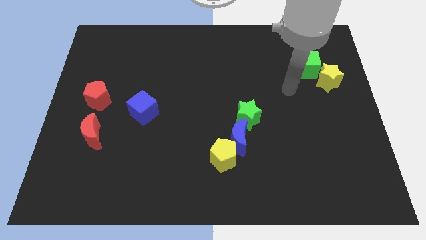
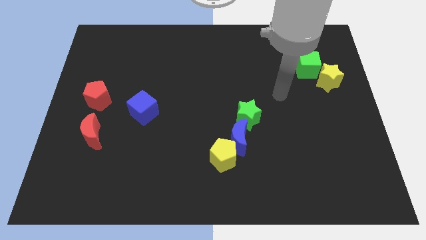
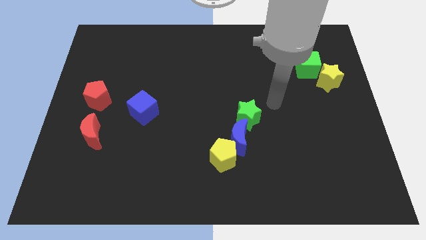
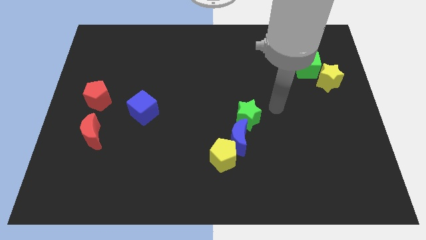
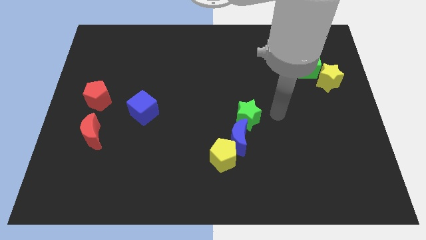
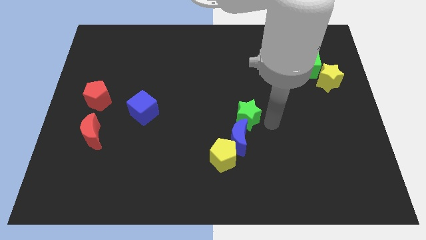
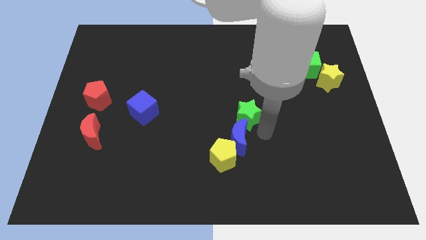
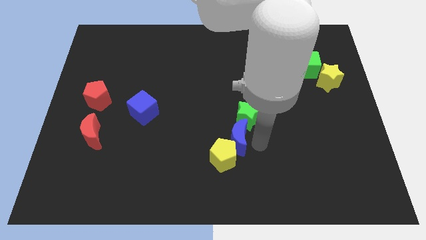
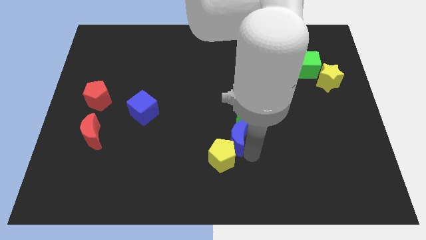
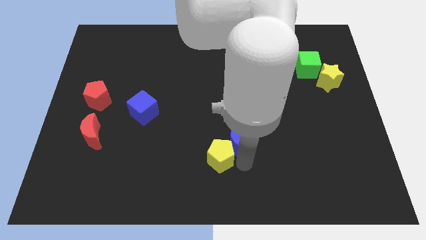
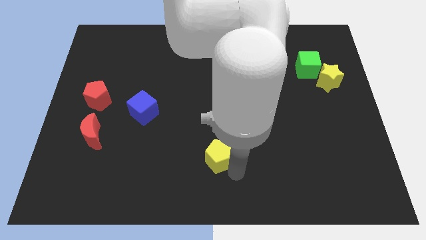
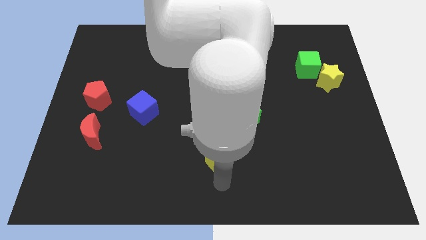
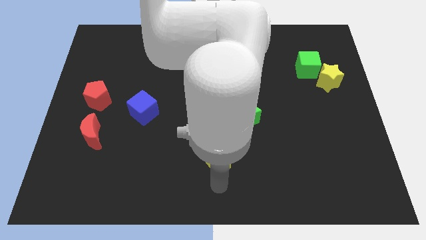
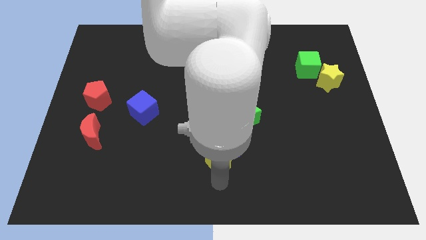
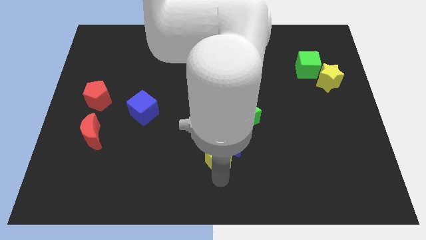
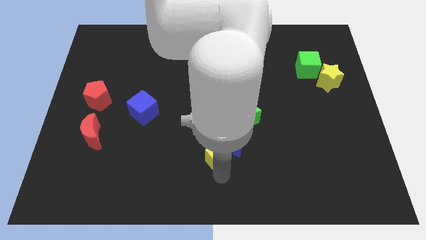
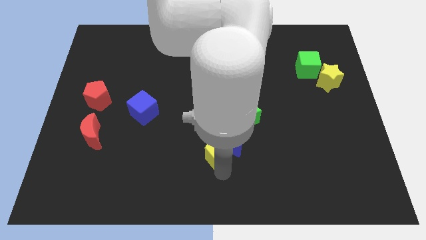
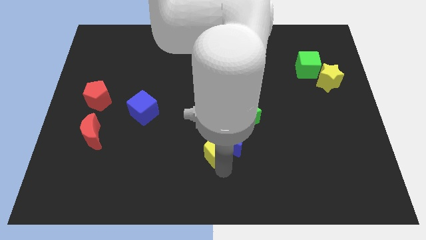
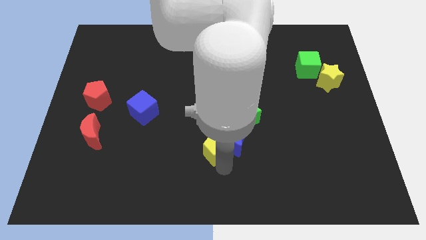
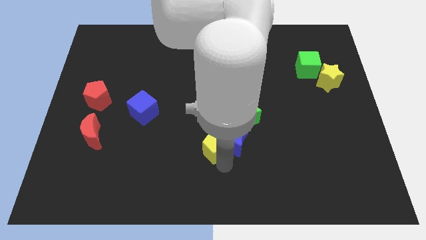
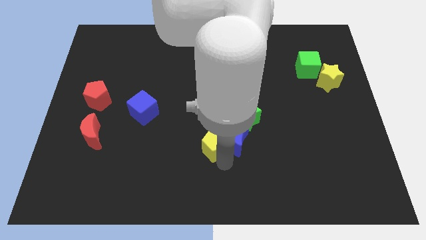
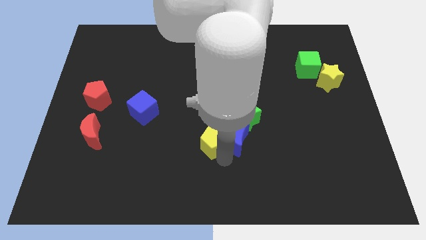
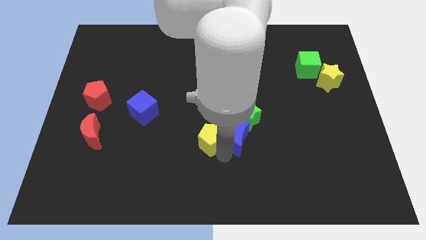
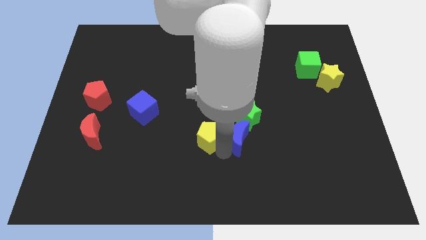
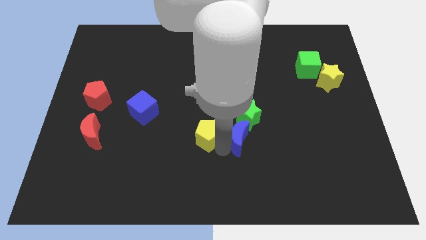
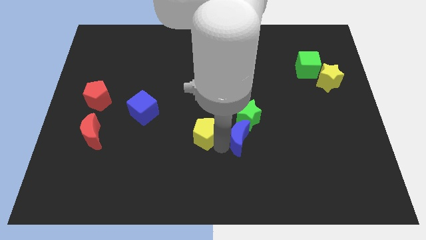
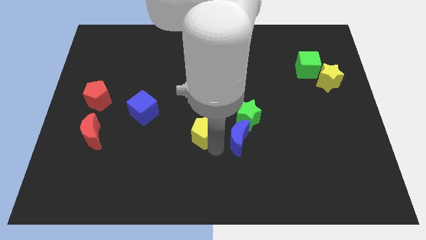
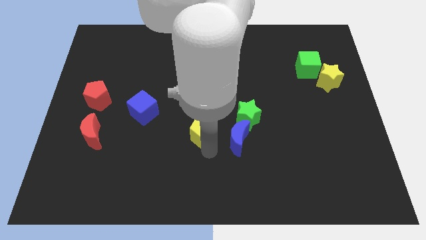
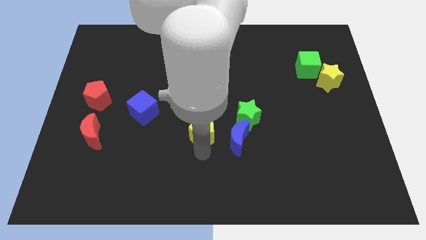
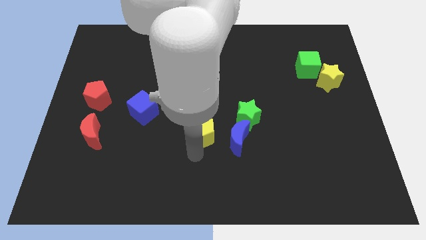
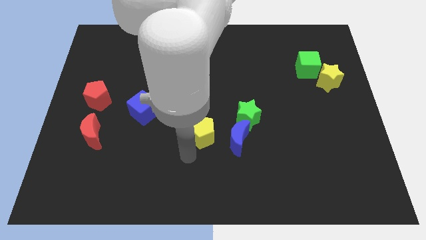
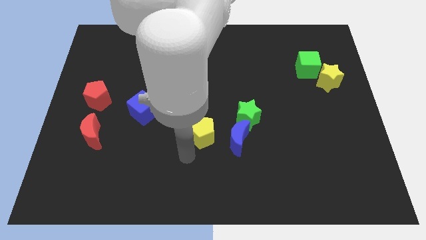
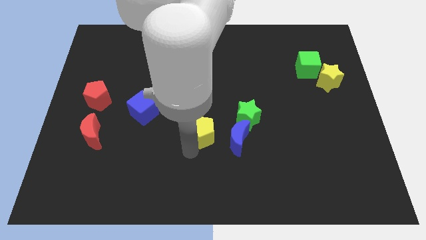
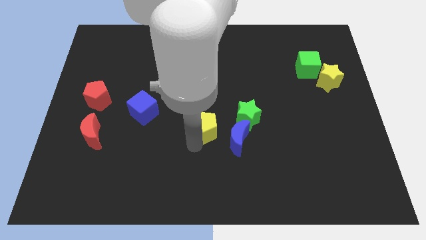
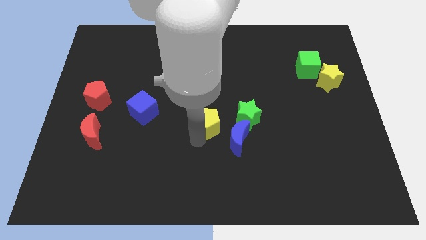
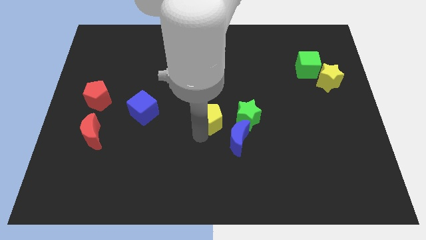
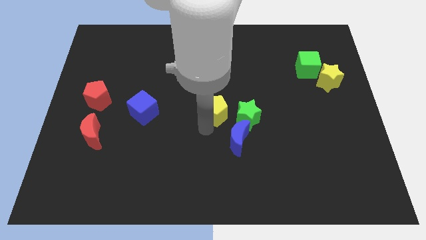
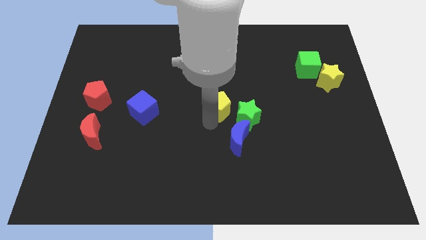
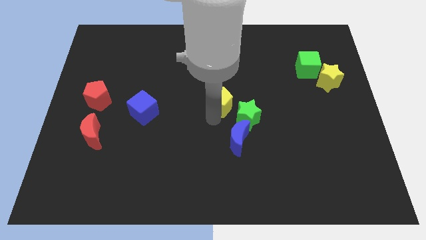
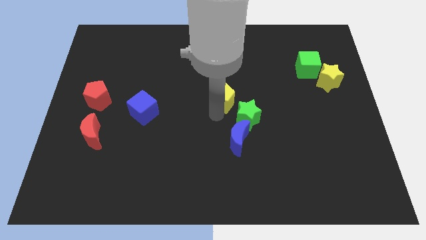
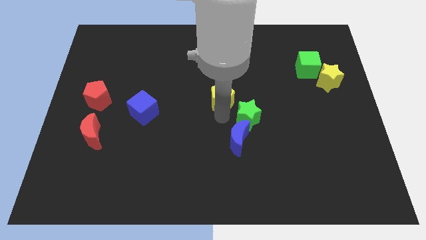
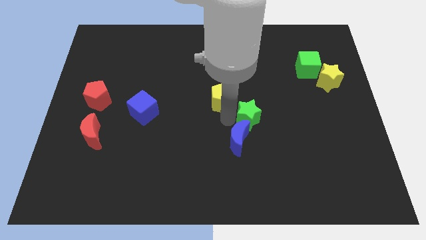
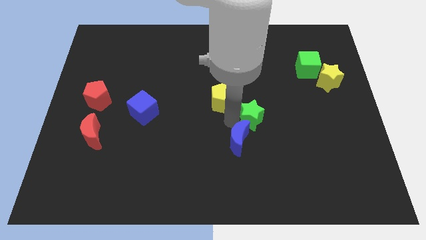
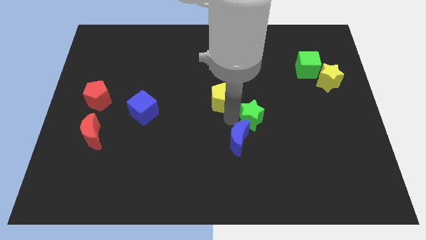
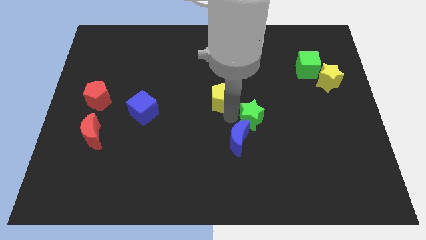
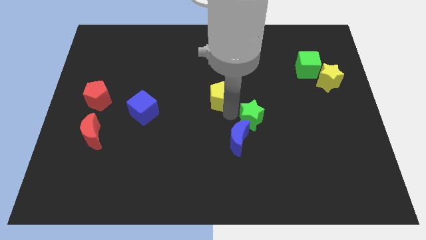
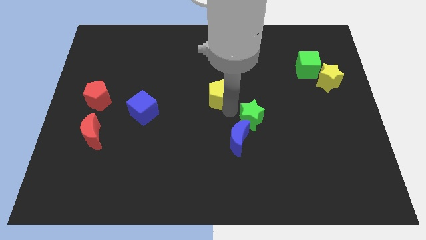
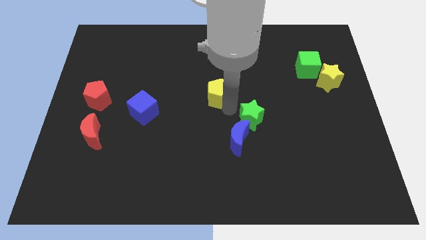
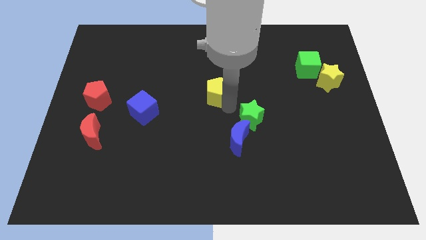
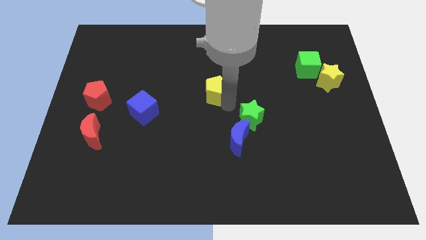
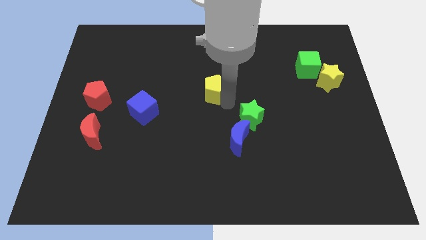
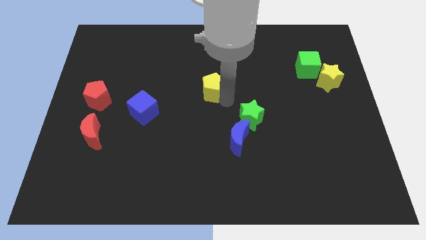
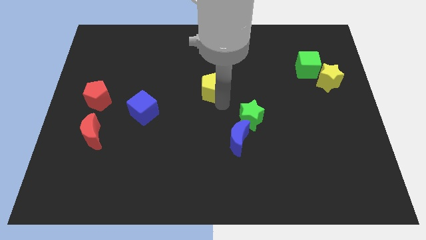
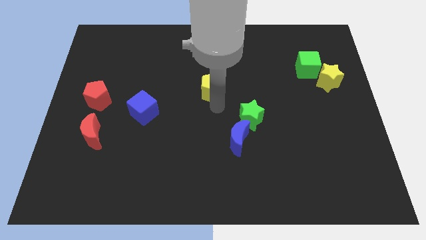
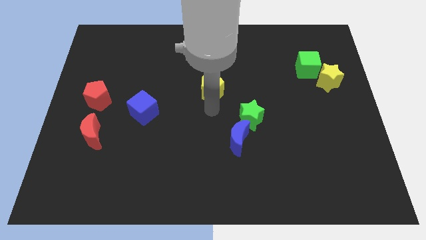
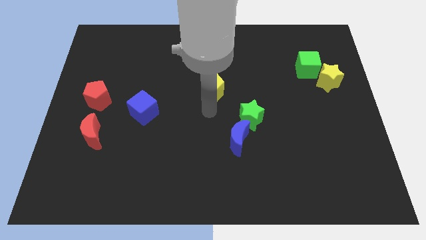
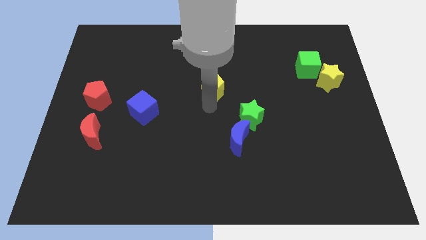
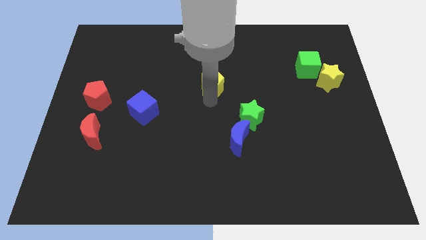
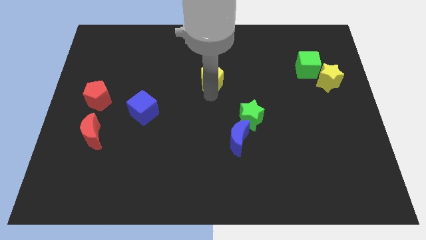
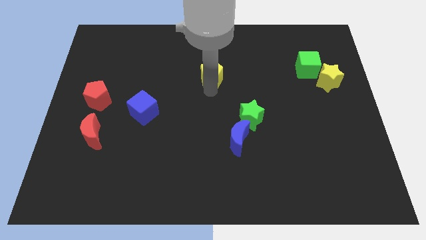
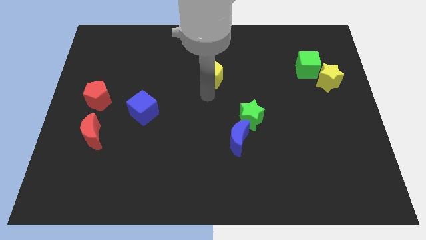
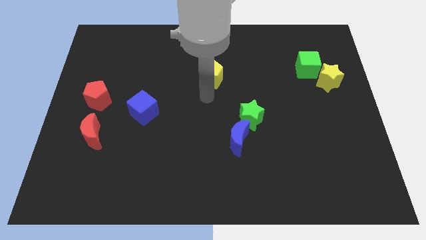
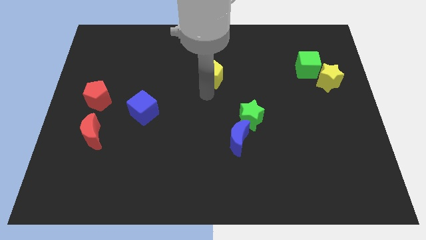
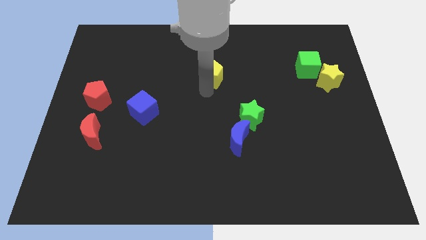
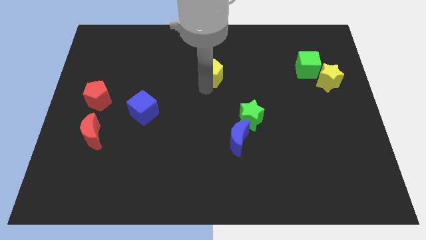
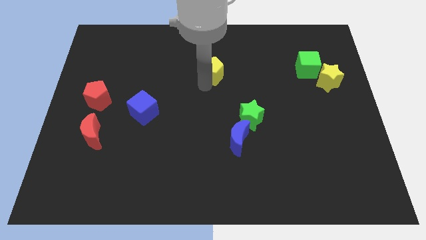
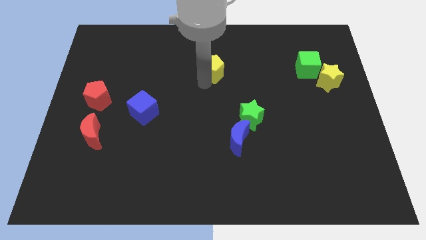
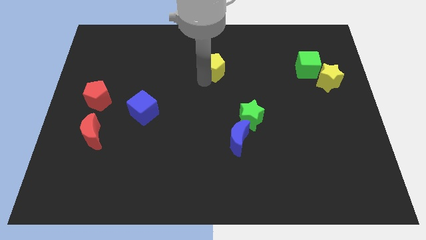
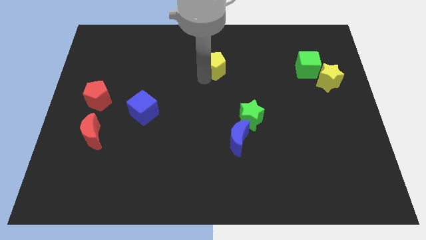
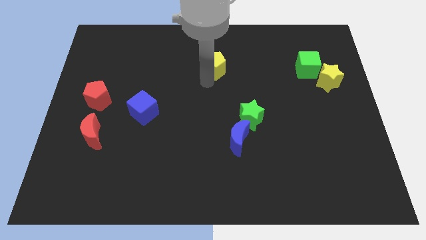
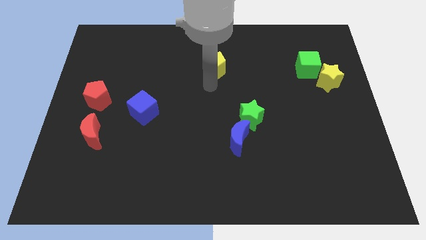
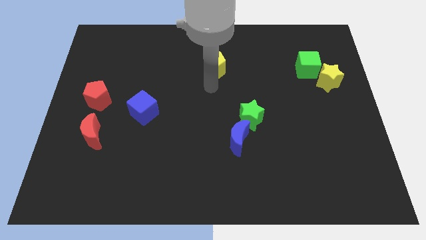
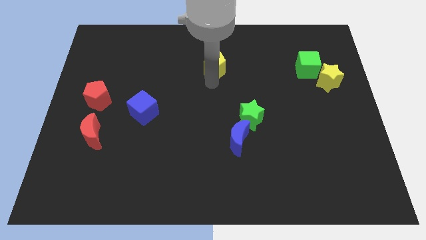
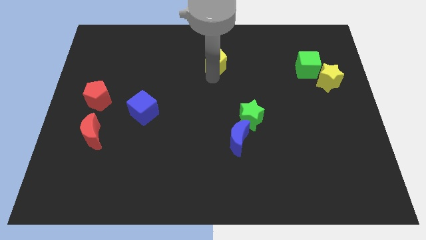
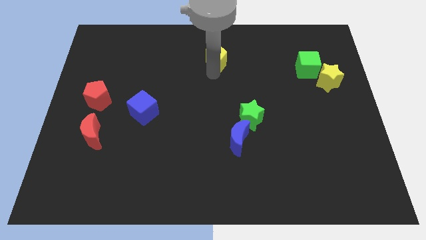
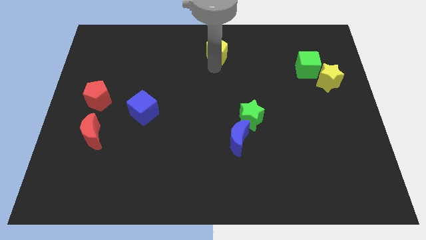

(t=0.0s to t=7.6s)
move the yellow pentagon to the top

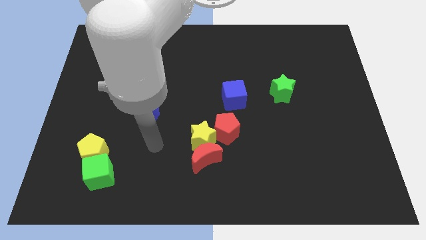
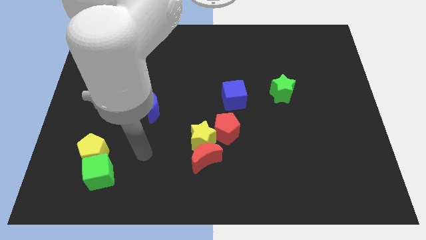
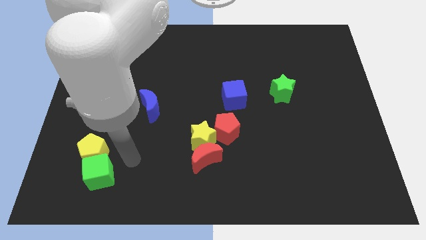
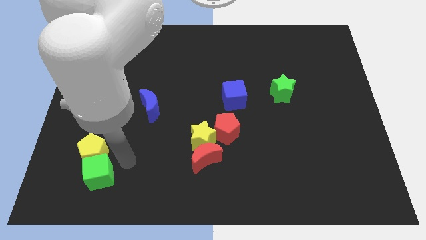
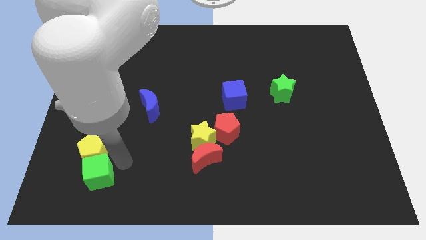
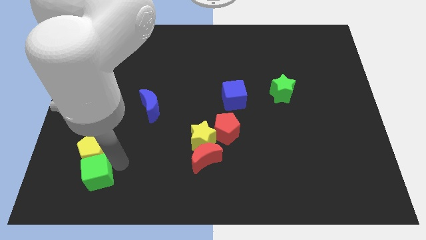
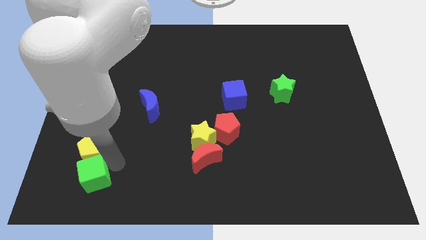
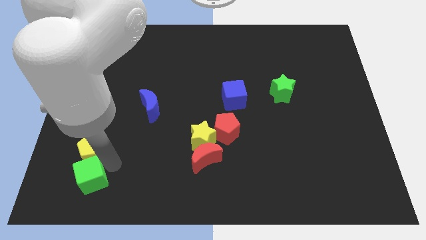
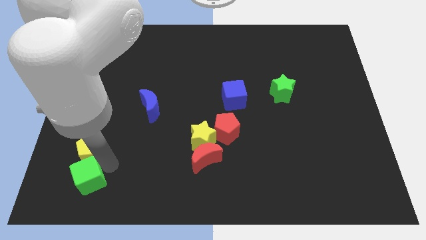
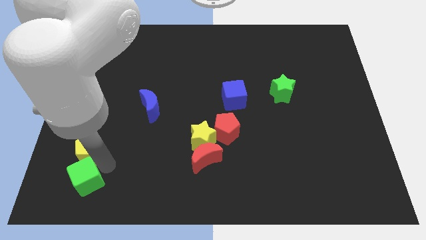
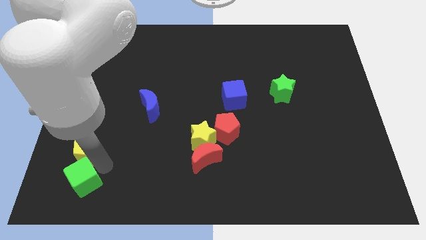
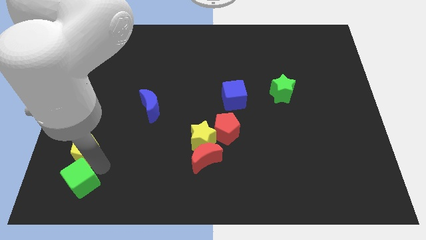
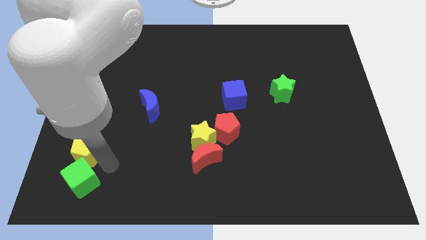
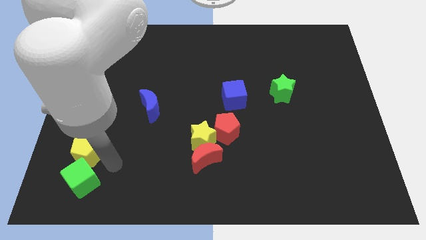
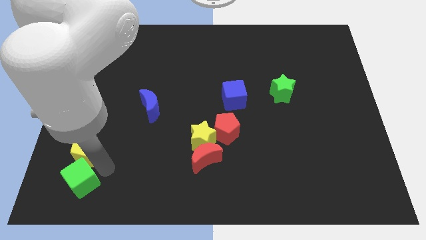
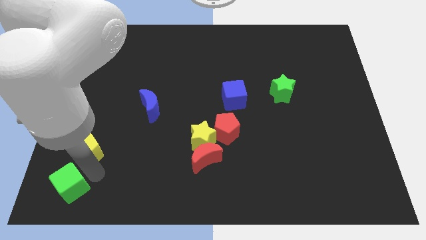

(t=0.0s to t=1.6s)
push the green cube to the bottom left
